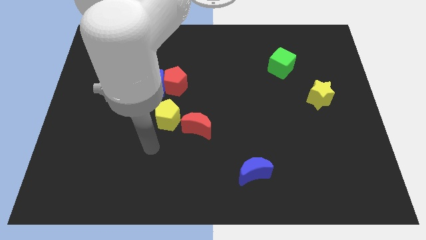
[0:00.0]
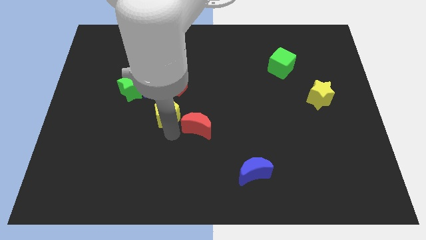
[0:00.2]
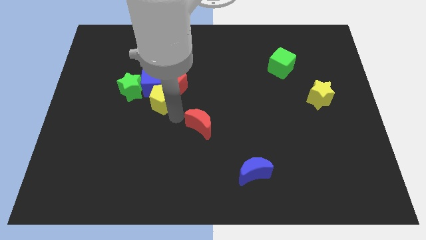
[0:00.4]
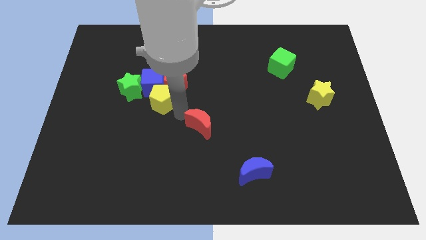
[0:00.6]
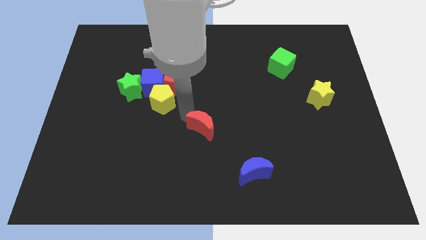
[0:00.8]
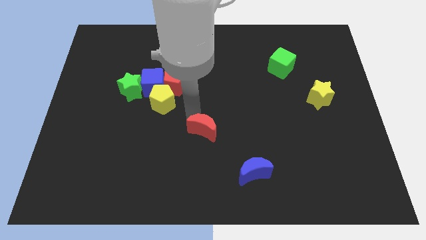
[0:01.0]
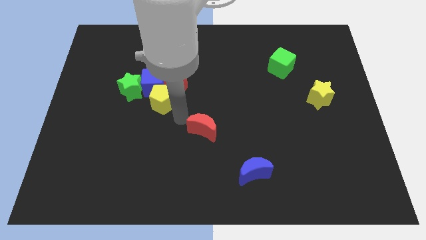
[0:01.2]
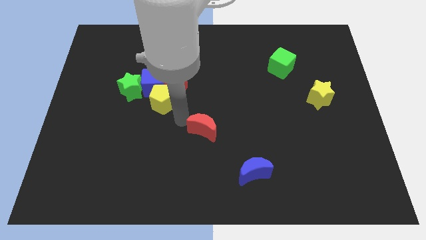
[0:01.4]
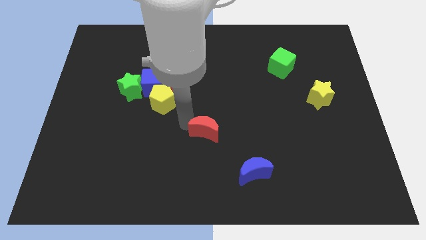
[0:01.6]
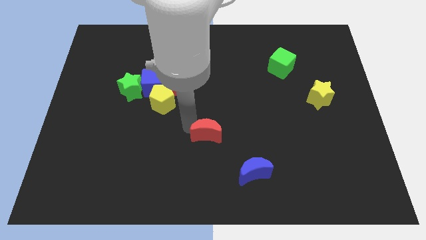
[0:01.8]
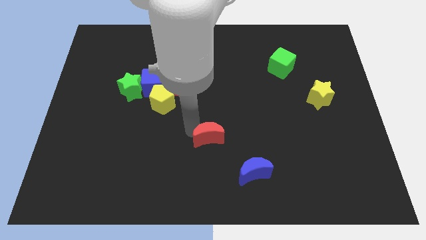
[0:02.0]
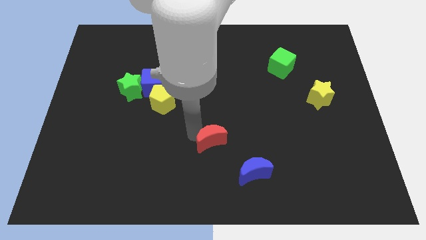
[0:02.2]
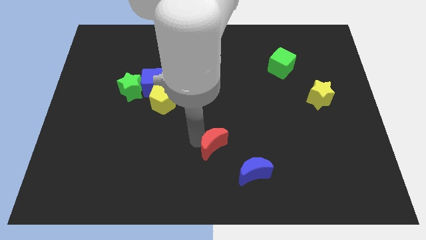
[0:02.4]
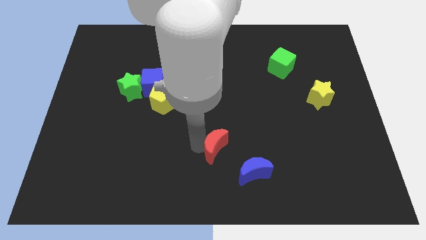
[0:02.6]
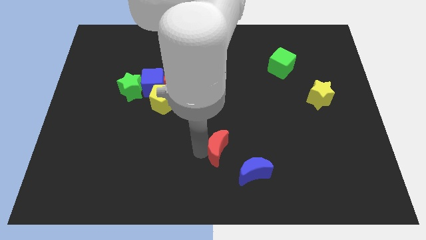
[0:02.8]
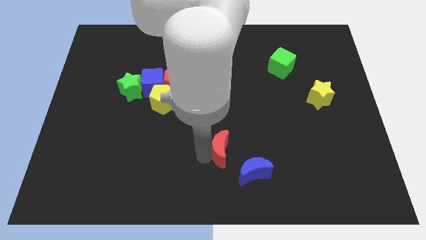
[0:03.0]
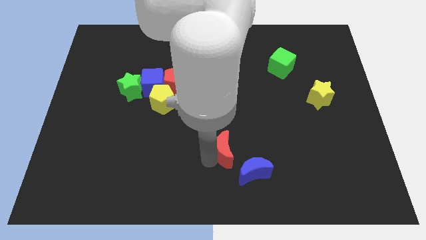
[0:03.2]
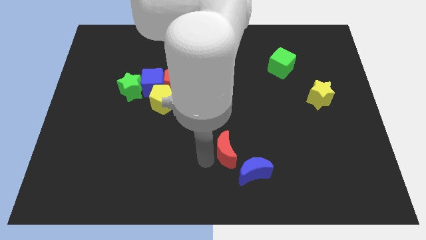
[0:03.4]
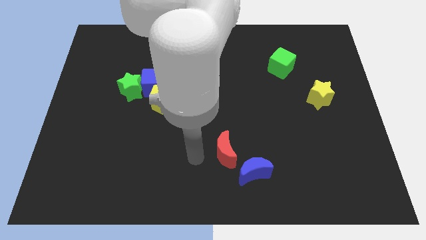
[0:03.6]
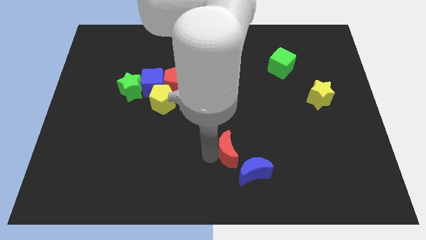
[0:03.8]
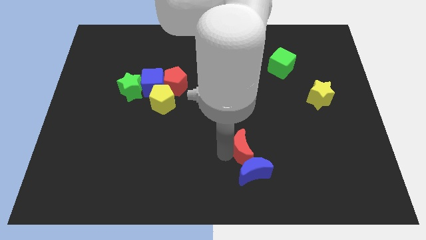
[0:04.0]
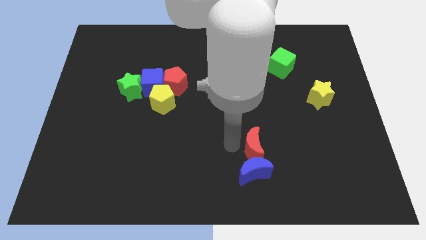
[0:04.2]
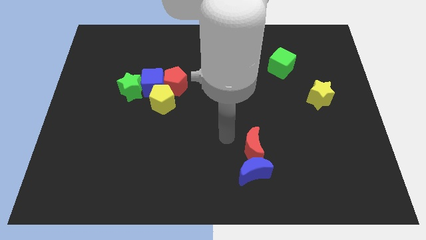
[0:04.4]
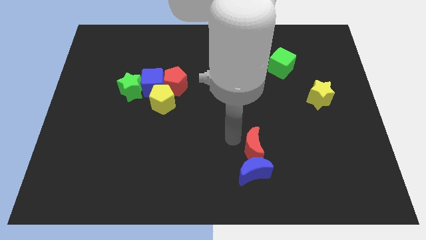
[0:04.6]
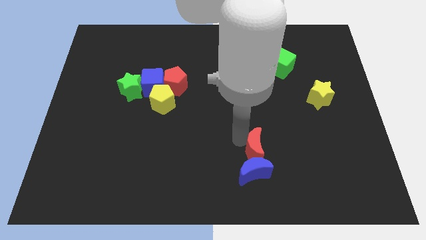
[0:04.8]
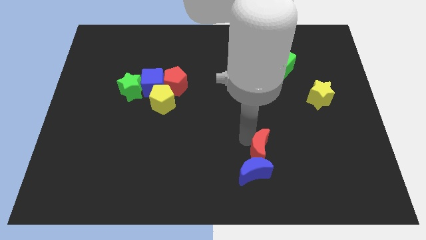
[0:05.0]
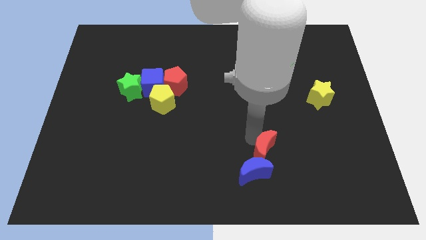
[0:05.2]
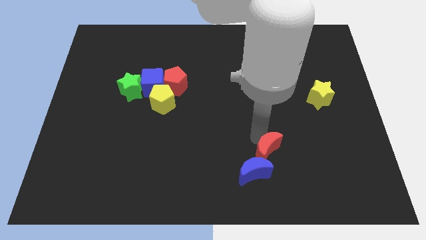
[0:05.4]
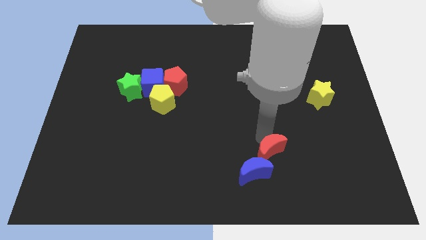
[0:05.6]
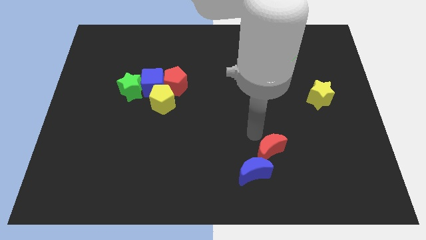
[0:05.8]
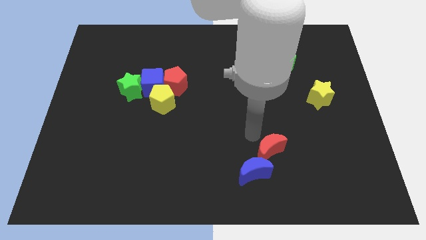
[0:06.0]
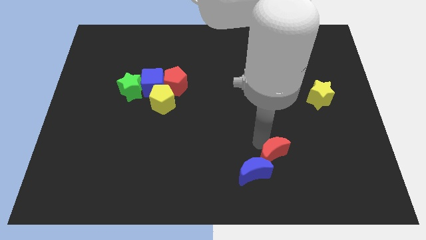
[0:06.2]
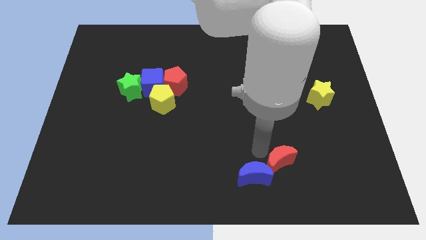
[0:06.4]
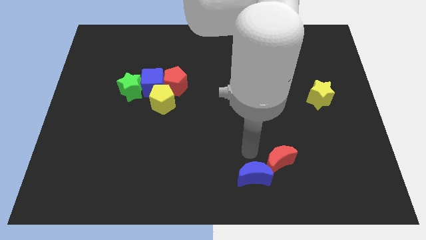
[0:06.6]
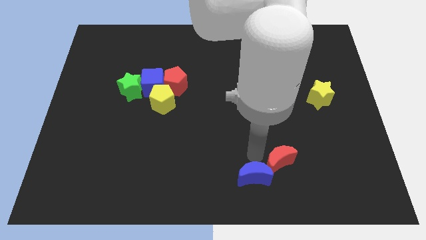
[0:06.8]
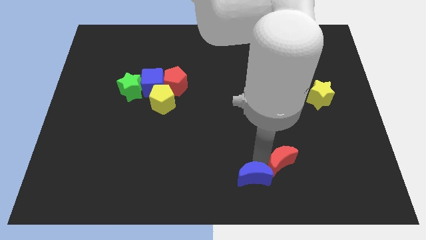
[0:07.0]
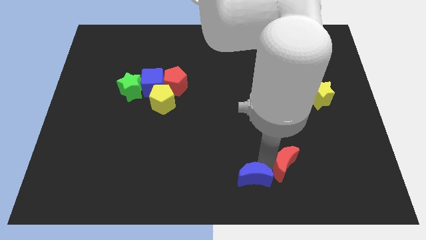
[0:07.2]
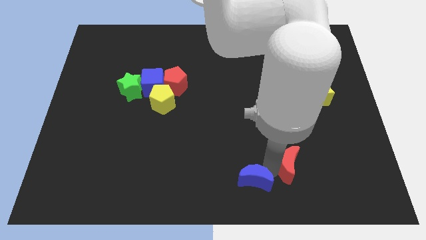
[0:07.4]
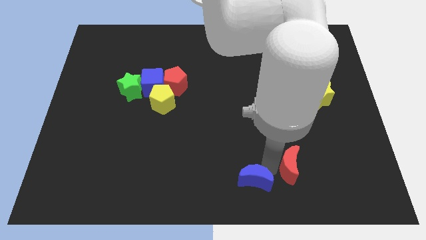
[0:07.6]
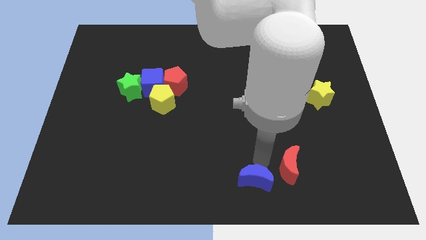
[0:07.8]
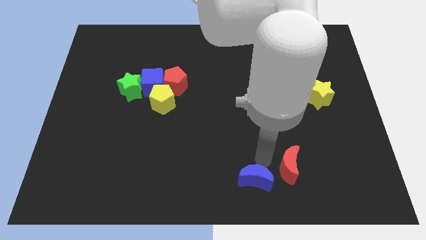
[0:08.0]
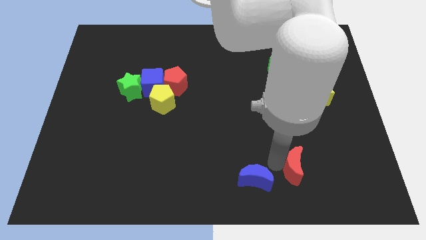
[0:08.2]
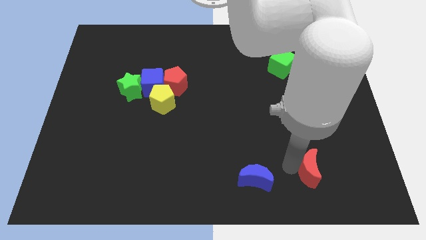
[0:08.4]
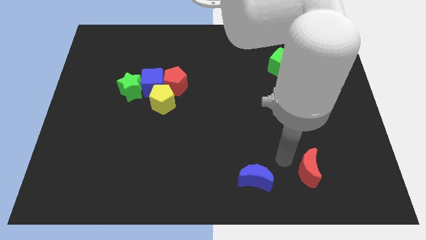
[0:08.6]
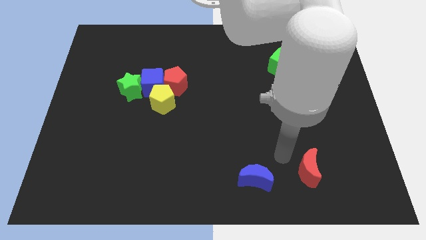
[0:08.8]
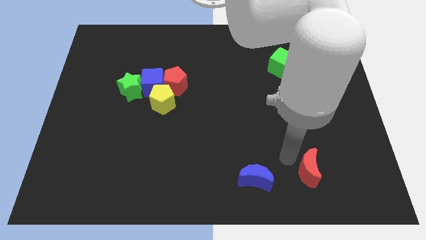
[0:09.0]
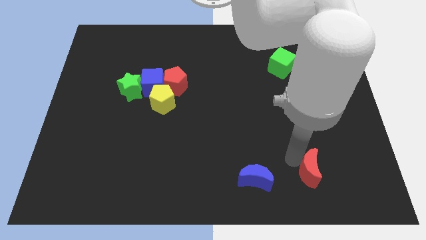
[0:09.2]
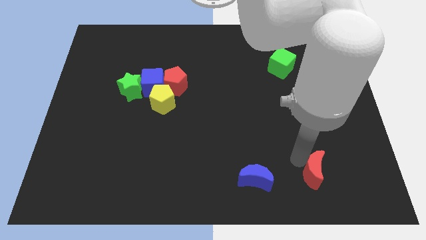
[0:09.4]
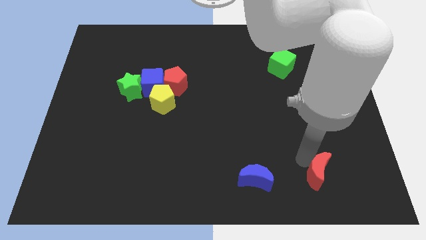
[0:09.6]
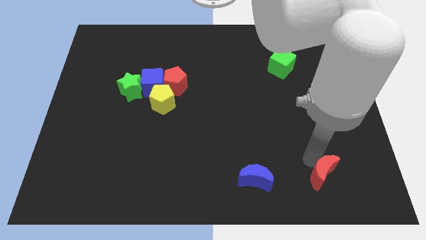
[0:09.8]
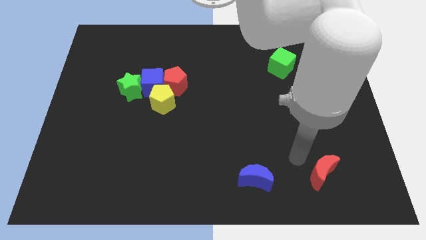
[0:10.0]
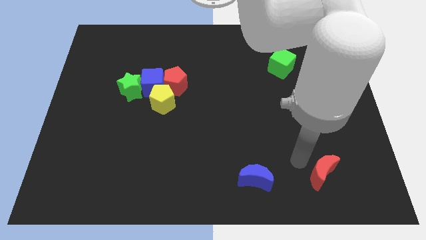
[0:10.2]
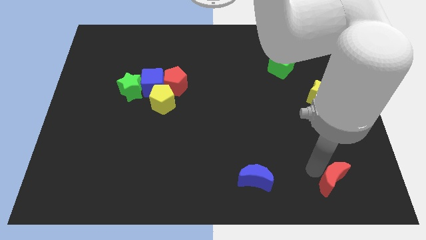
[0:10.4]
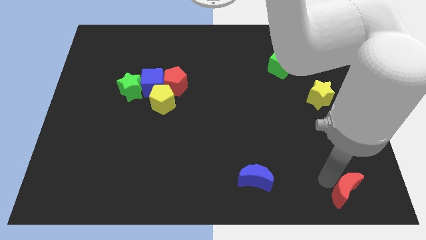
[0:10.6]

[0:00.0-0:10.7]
push the red moon to the bottom right

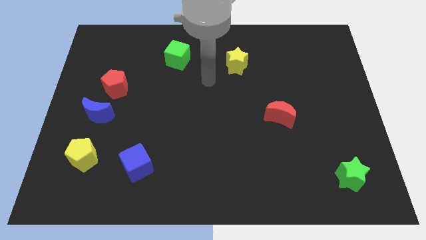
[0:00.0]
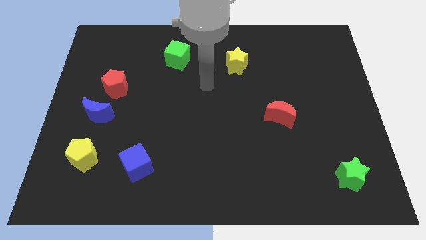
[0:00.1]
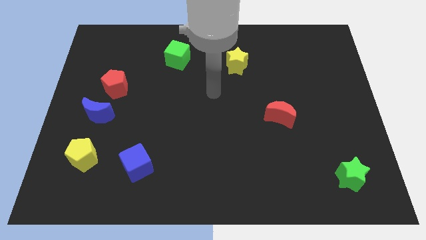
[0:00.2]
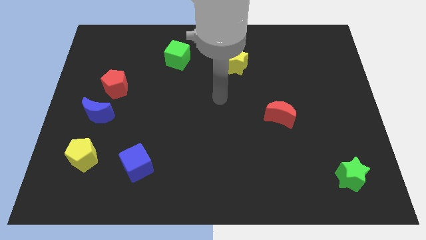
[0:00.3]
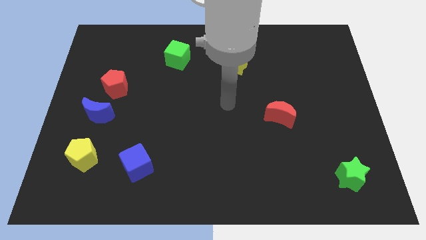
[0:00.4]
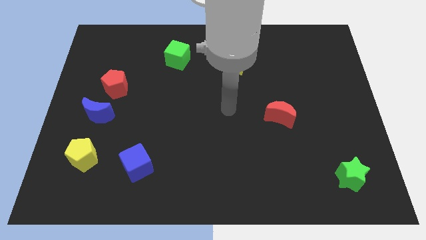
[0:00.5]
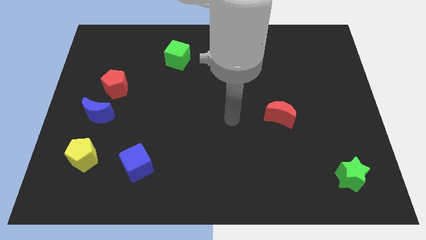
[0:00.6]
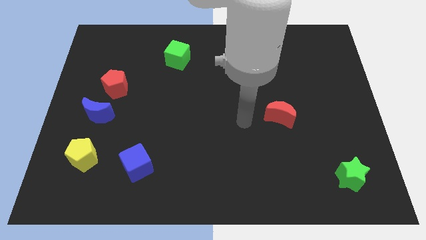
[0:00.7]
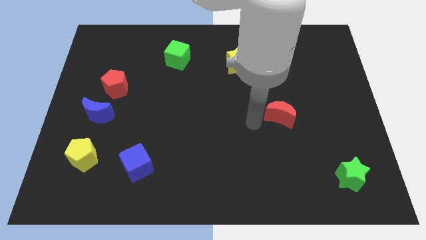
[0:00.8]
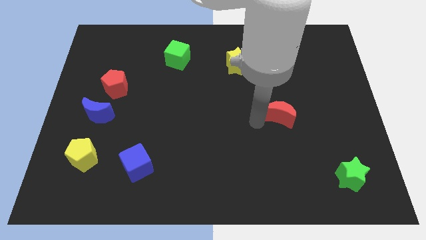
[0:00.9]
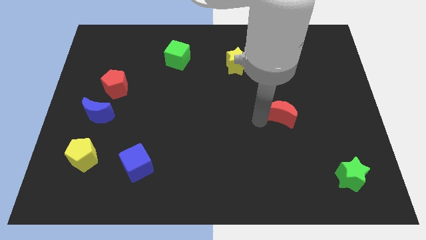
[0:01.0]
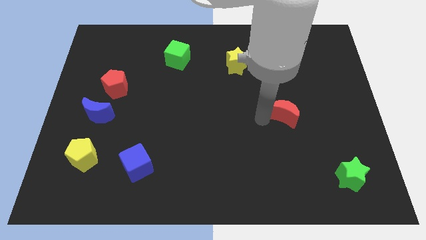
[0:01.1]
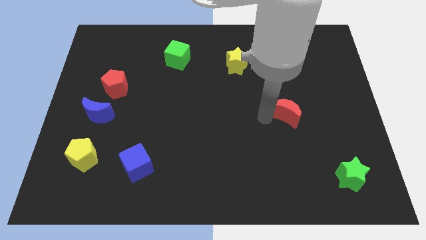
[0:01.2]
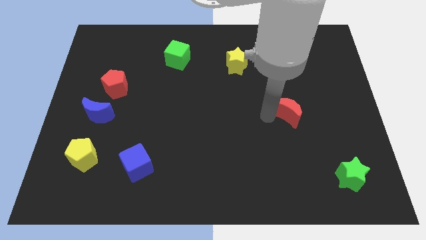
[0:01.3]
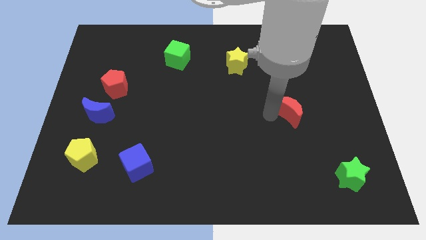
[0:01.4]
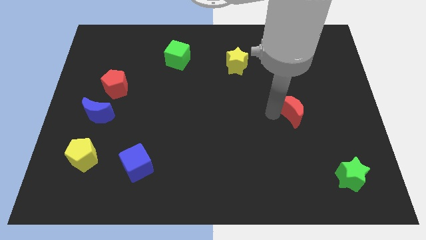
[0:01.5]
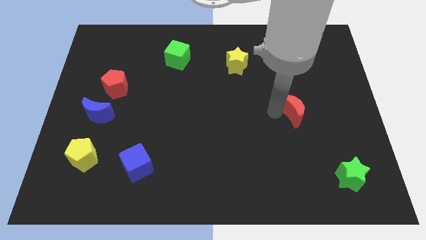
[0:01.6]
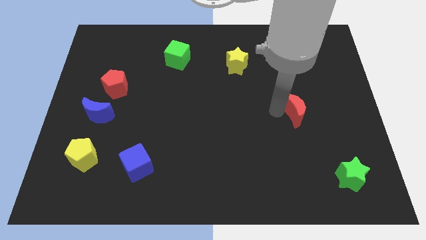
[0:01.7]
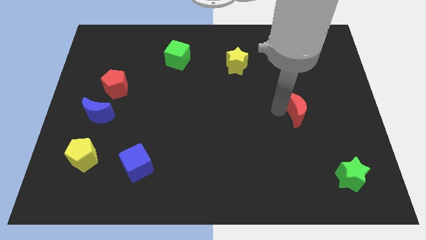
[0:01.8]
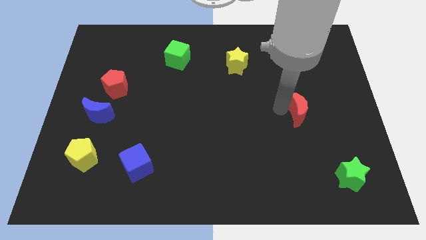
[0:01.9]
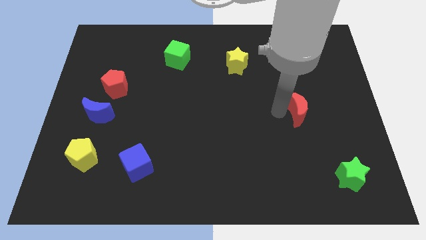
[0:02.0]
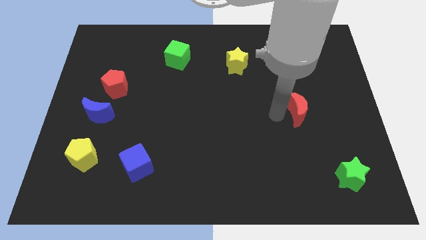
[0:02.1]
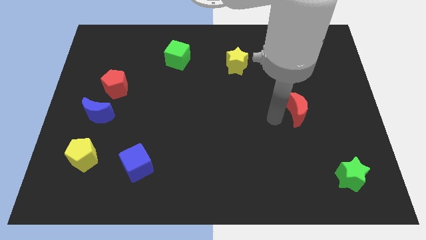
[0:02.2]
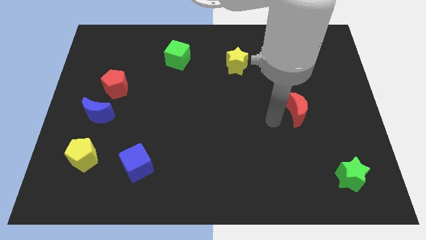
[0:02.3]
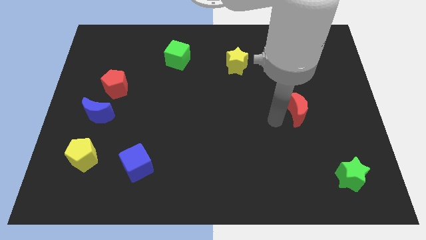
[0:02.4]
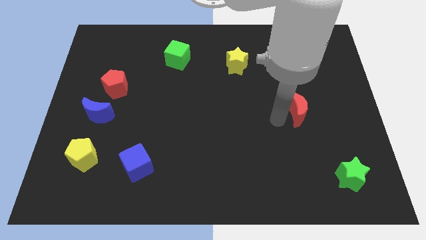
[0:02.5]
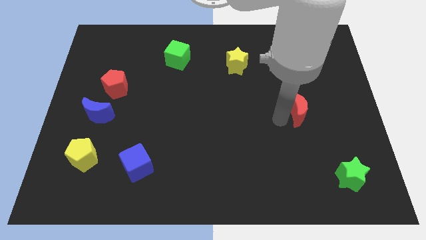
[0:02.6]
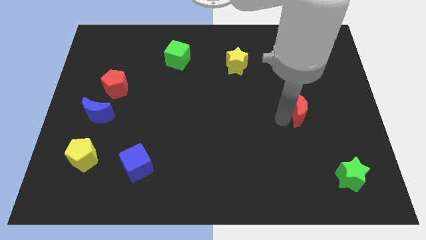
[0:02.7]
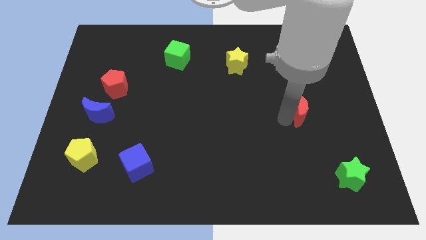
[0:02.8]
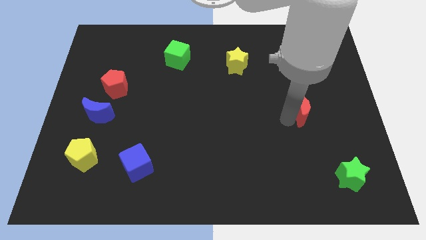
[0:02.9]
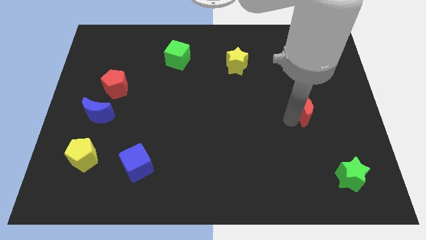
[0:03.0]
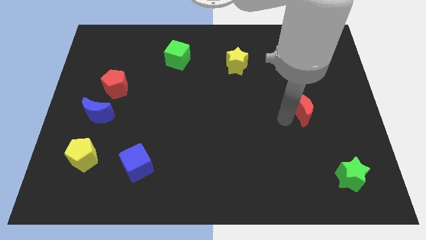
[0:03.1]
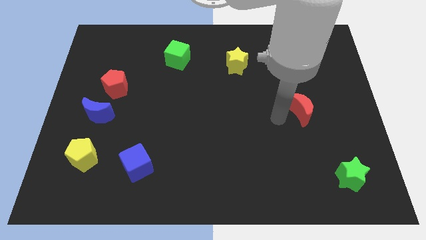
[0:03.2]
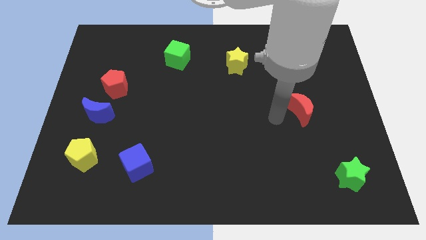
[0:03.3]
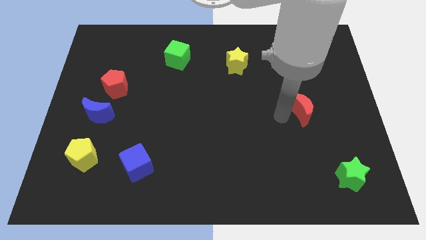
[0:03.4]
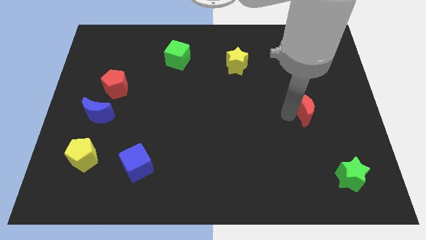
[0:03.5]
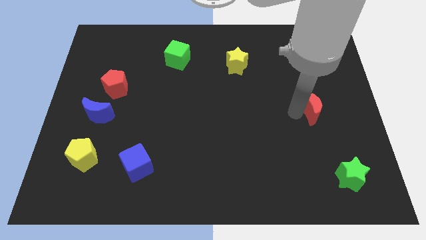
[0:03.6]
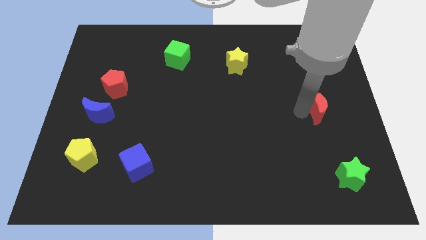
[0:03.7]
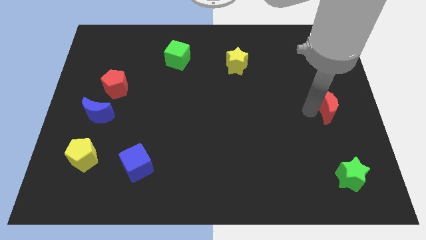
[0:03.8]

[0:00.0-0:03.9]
push the red moon to the right side
